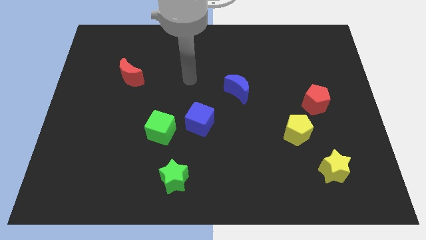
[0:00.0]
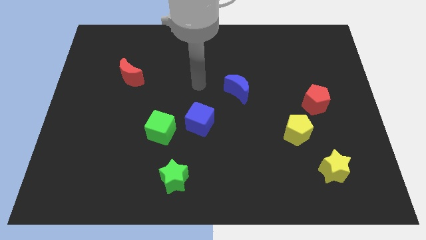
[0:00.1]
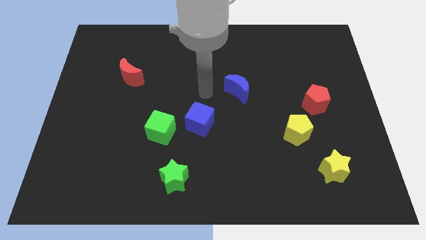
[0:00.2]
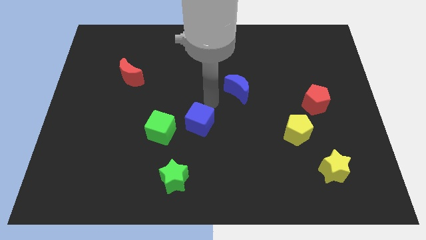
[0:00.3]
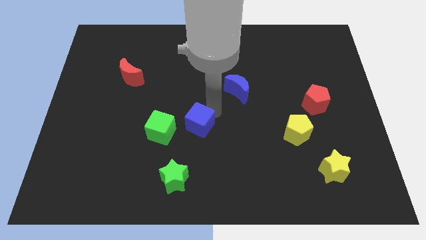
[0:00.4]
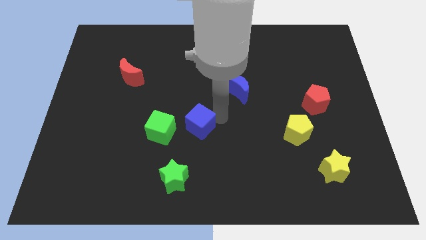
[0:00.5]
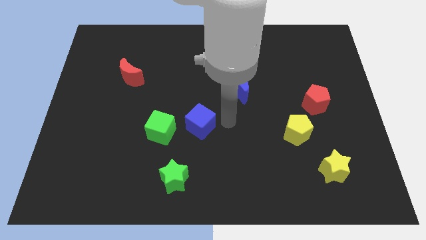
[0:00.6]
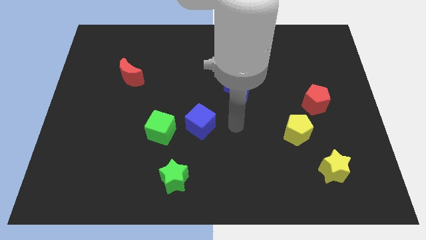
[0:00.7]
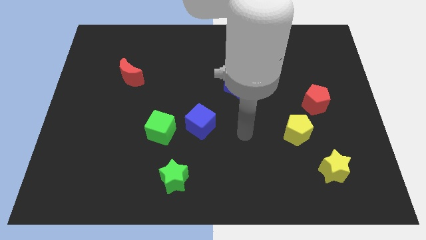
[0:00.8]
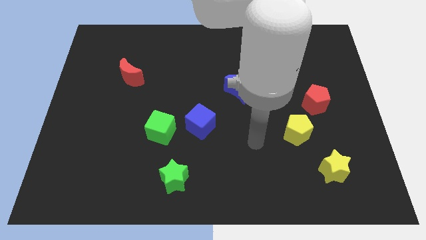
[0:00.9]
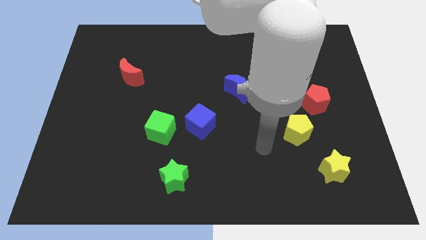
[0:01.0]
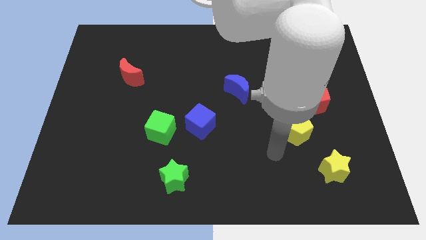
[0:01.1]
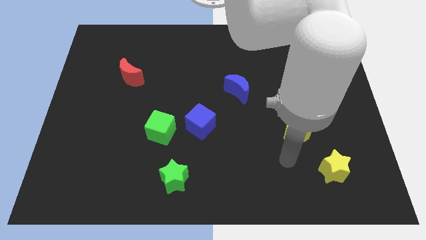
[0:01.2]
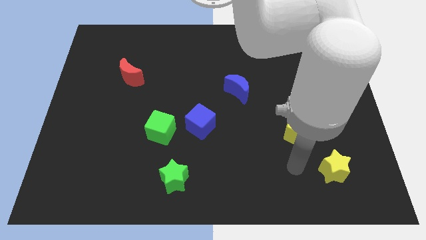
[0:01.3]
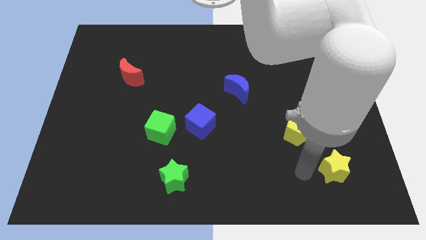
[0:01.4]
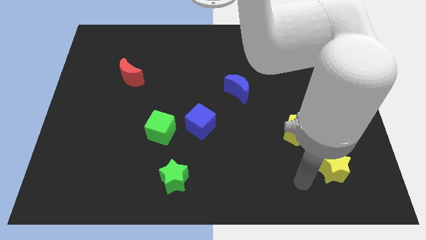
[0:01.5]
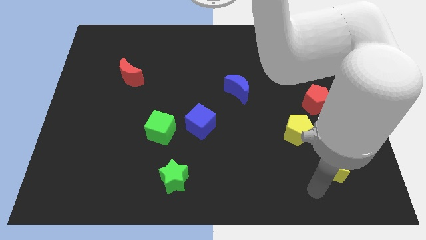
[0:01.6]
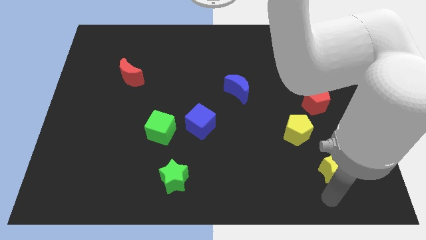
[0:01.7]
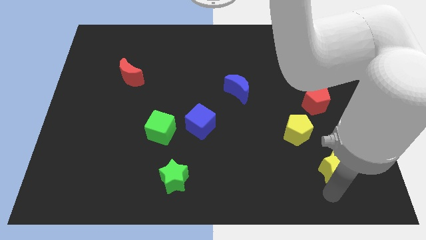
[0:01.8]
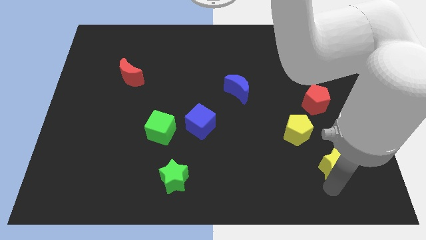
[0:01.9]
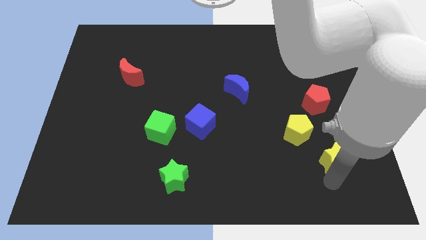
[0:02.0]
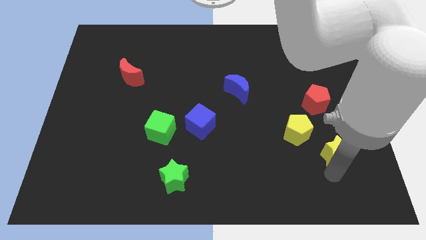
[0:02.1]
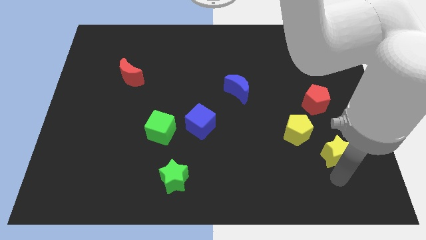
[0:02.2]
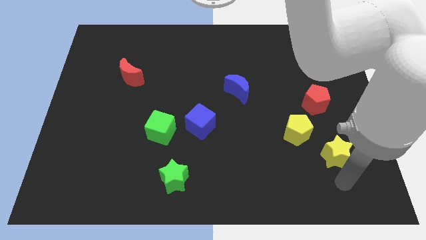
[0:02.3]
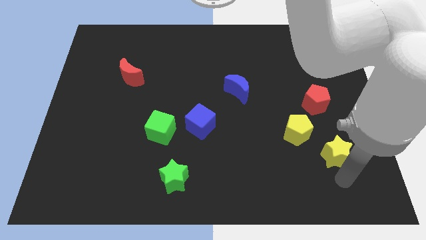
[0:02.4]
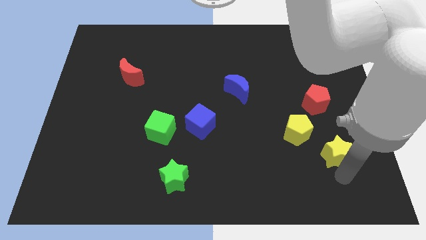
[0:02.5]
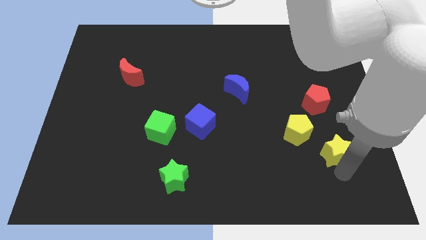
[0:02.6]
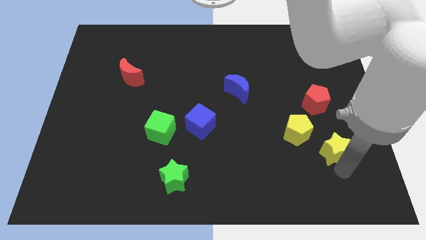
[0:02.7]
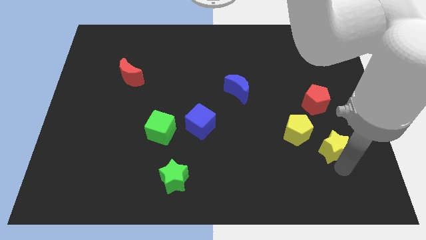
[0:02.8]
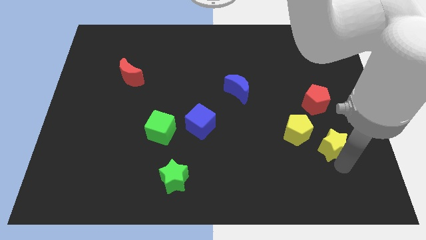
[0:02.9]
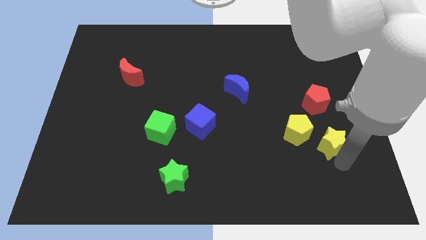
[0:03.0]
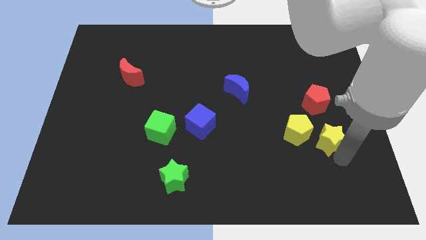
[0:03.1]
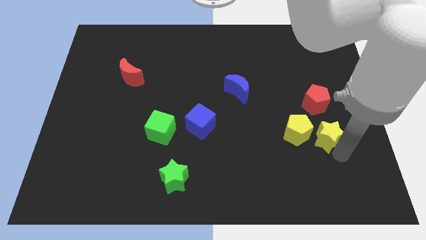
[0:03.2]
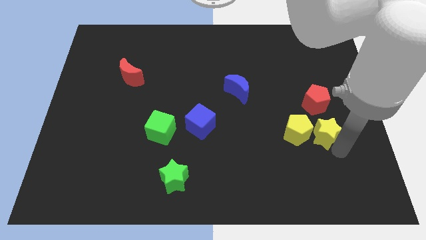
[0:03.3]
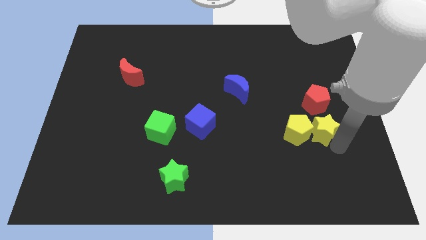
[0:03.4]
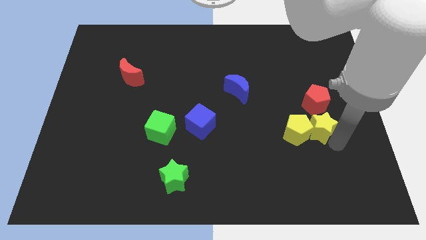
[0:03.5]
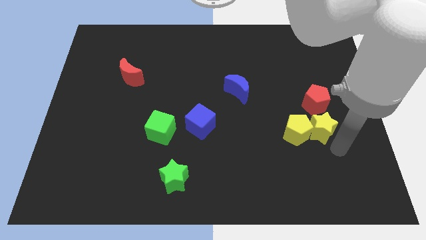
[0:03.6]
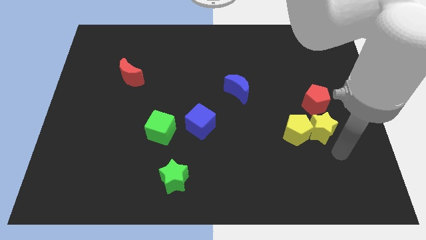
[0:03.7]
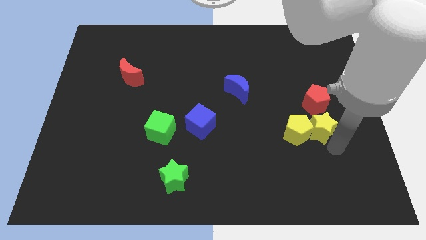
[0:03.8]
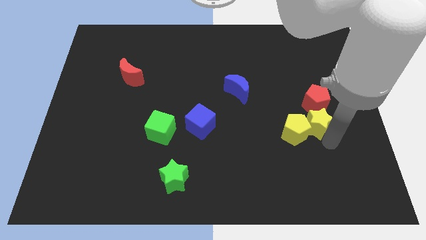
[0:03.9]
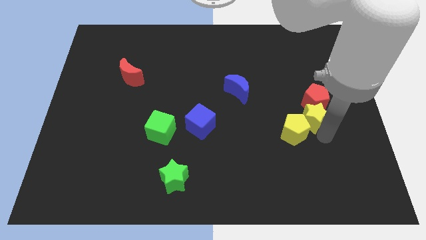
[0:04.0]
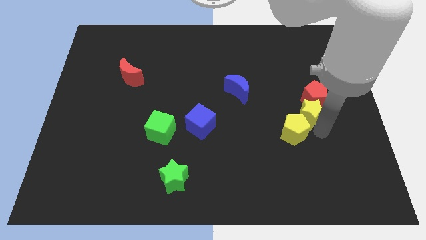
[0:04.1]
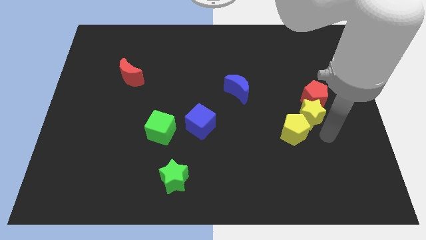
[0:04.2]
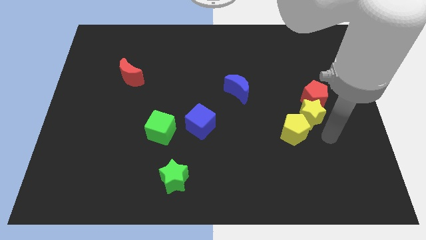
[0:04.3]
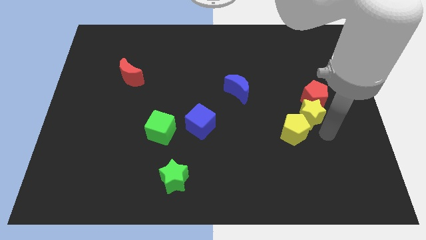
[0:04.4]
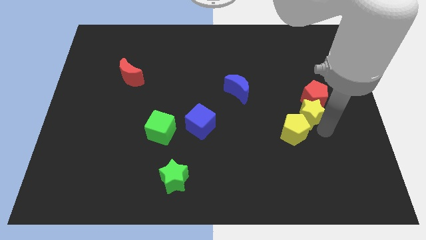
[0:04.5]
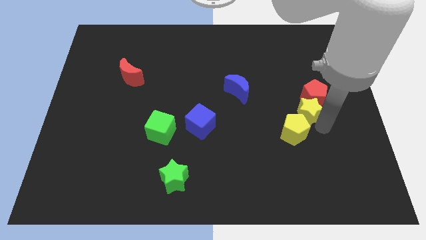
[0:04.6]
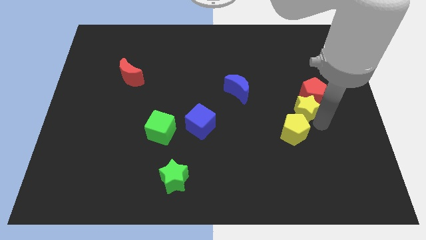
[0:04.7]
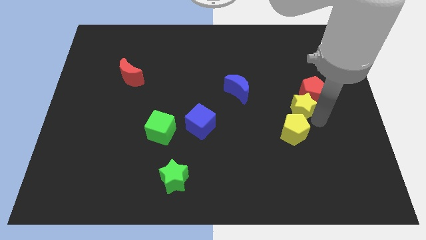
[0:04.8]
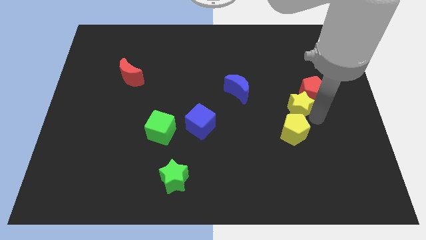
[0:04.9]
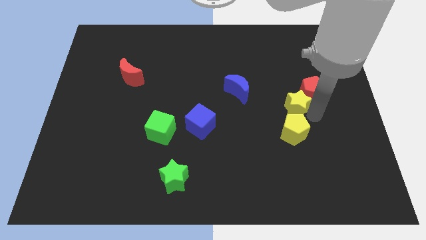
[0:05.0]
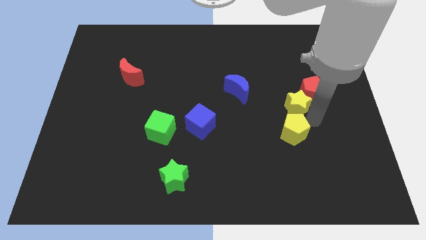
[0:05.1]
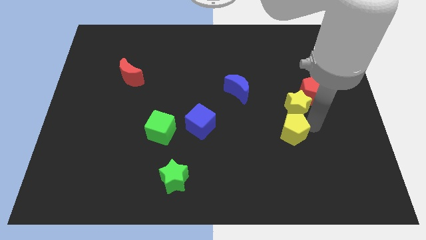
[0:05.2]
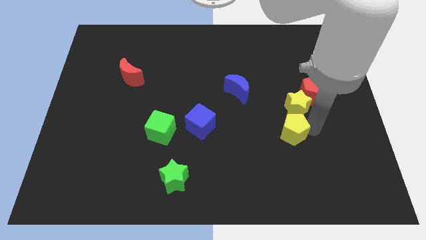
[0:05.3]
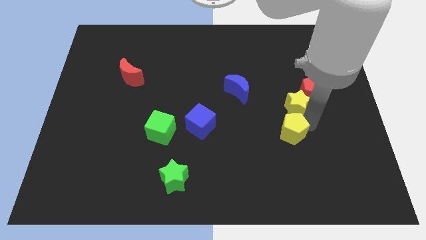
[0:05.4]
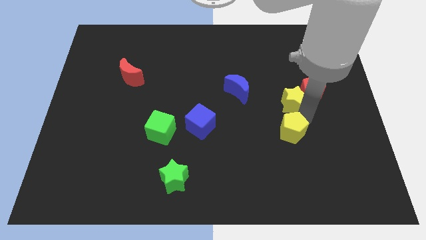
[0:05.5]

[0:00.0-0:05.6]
move the yellow star to the right of the blue moon

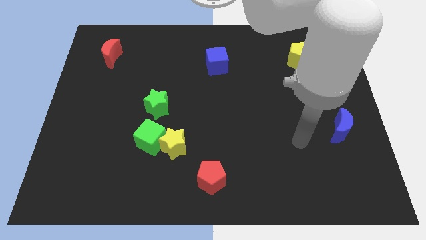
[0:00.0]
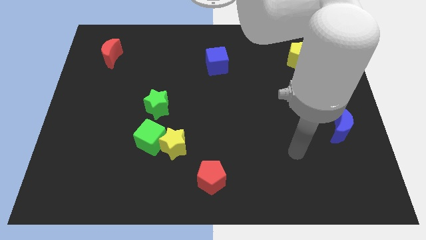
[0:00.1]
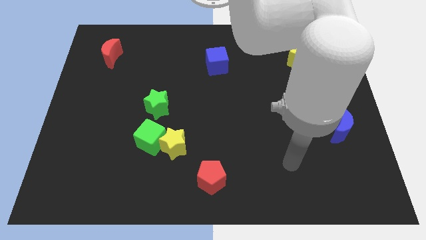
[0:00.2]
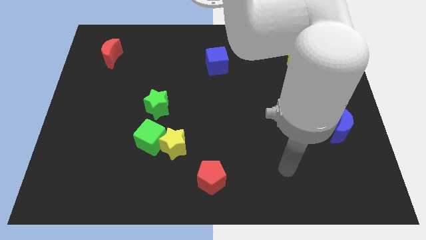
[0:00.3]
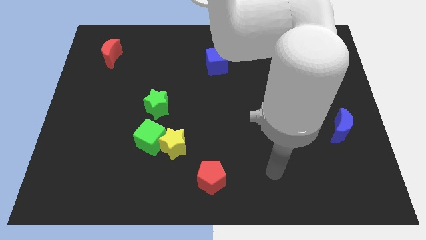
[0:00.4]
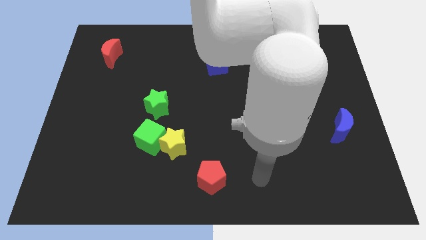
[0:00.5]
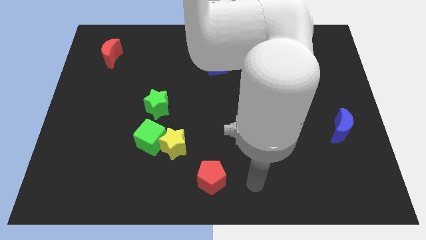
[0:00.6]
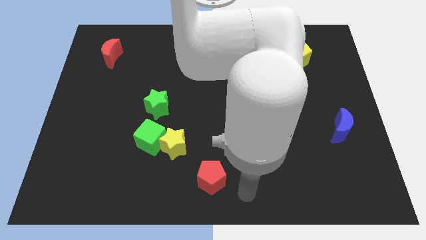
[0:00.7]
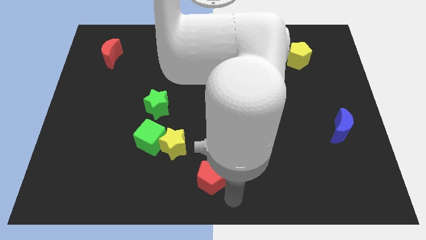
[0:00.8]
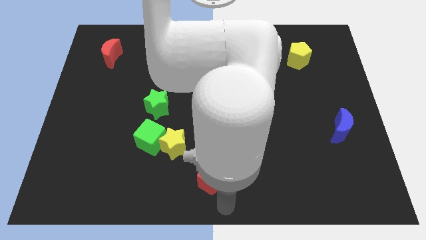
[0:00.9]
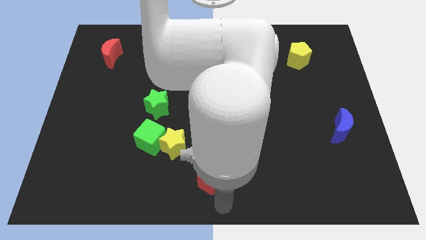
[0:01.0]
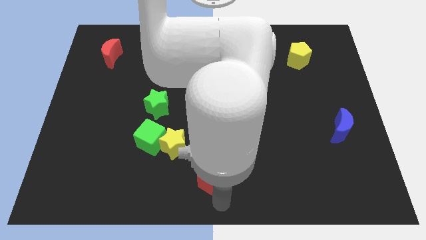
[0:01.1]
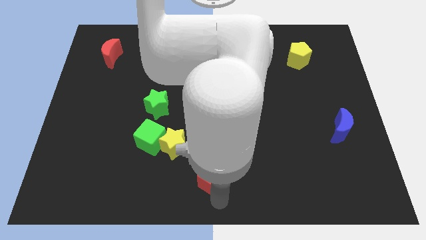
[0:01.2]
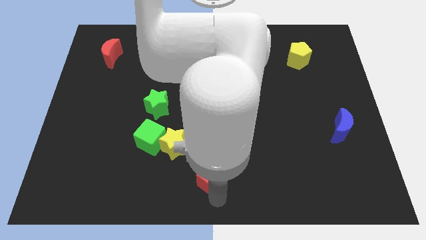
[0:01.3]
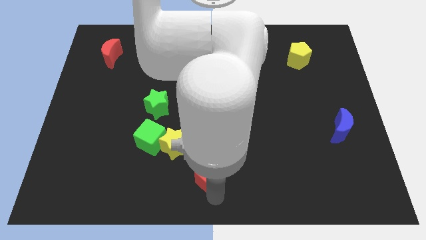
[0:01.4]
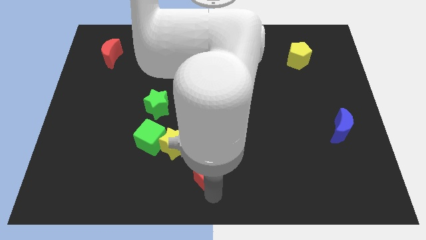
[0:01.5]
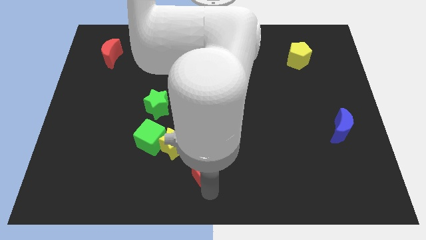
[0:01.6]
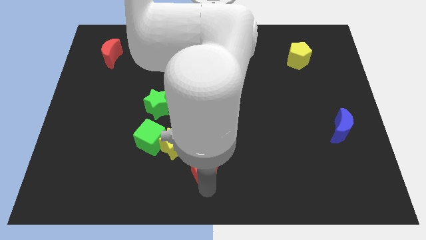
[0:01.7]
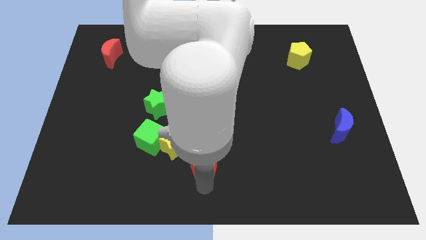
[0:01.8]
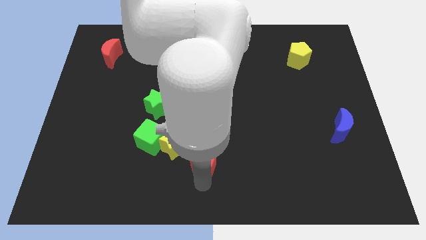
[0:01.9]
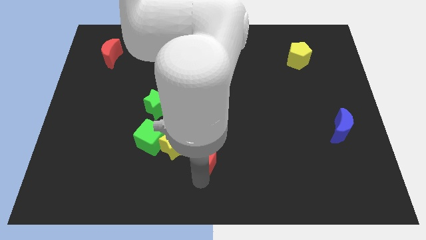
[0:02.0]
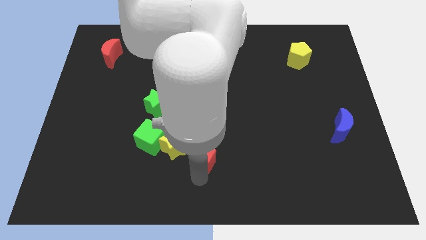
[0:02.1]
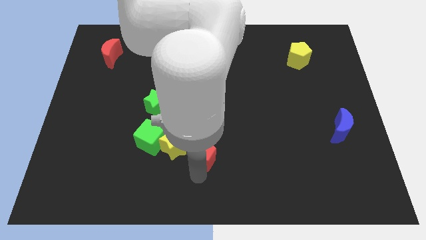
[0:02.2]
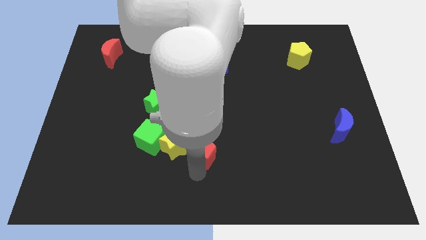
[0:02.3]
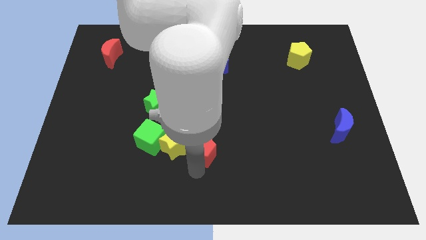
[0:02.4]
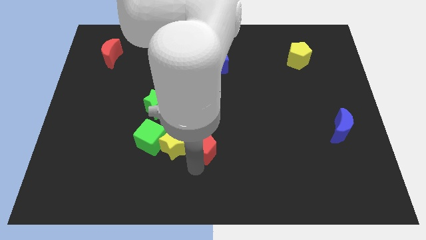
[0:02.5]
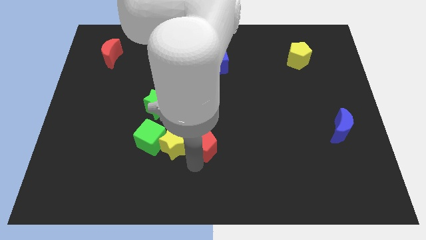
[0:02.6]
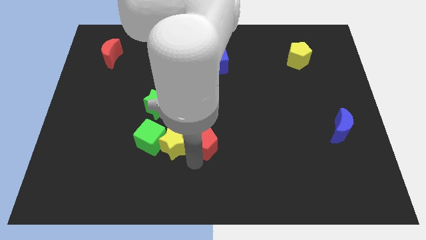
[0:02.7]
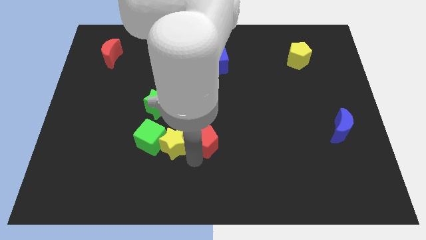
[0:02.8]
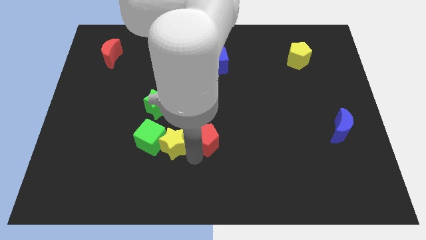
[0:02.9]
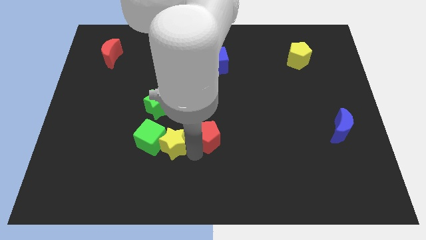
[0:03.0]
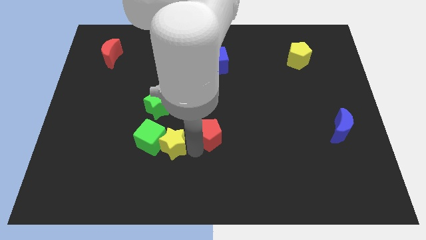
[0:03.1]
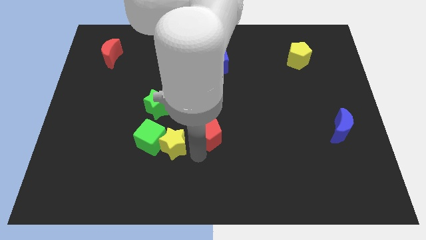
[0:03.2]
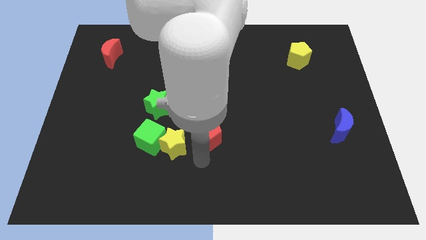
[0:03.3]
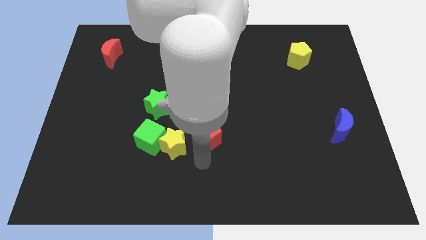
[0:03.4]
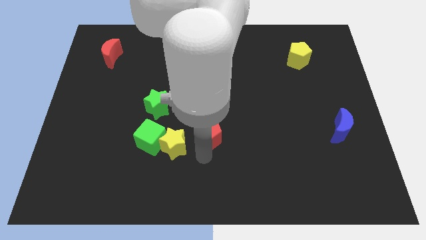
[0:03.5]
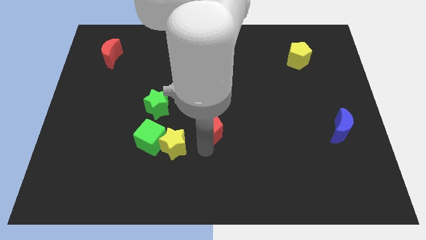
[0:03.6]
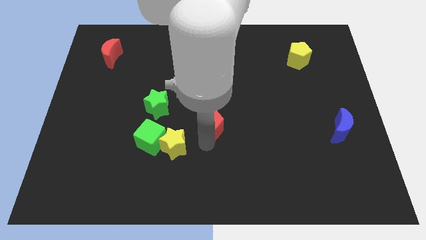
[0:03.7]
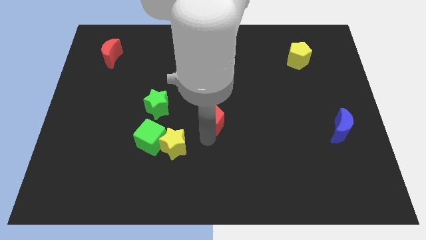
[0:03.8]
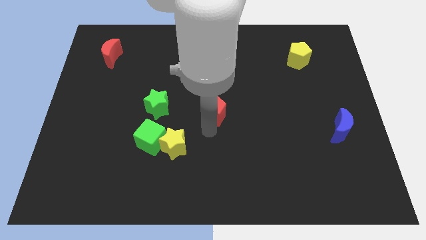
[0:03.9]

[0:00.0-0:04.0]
put the red pentagon to the bottom of the blue cube
